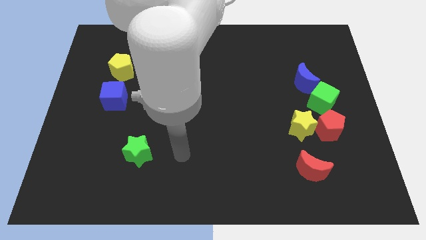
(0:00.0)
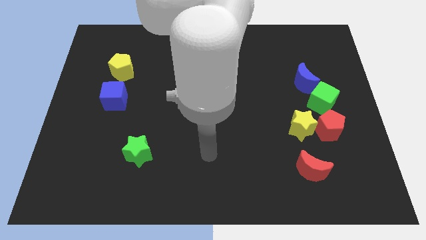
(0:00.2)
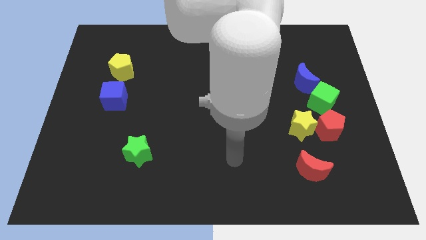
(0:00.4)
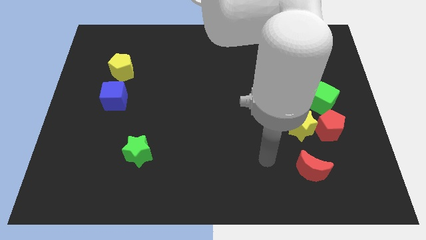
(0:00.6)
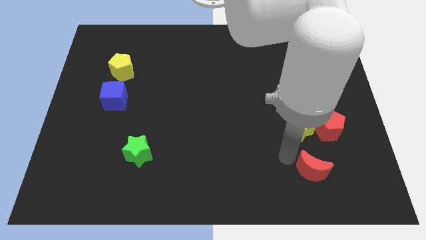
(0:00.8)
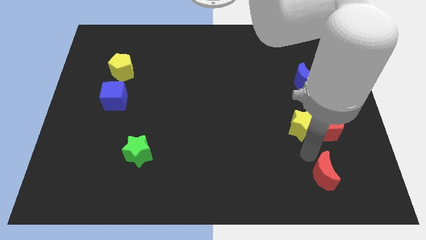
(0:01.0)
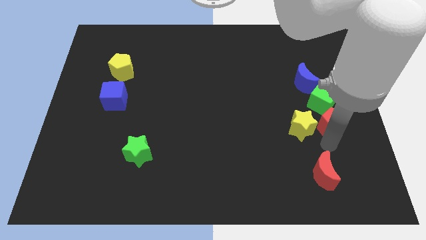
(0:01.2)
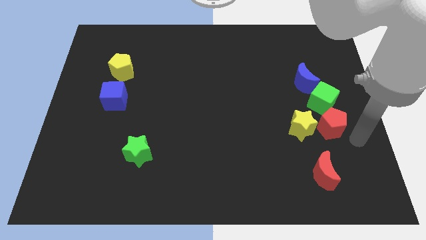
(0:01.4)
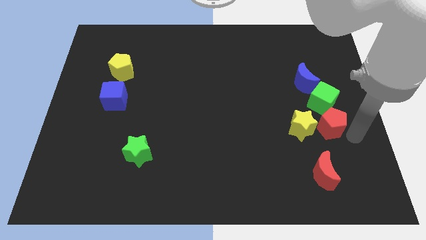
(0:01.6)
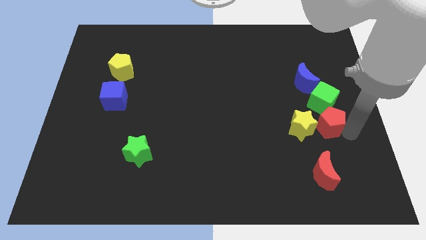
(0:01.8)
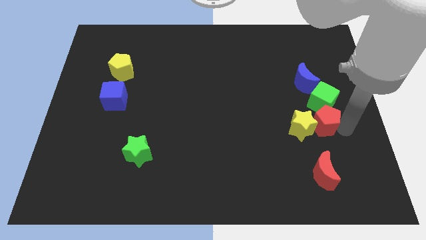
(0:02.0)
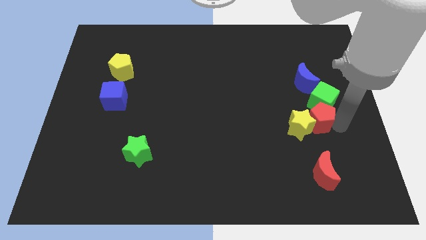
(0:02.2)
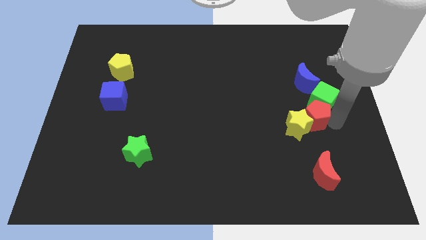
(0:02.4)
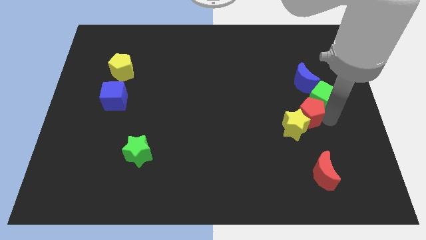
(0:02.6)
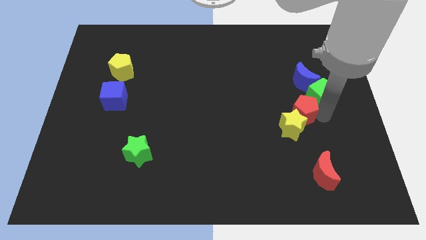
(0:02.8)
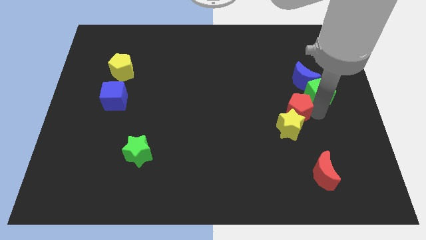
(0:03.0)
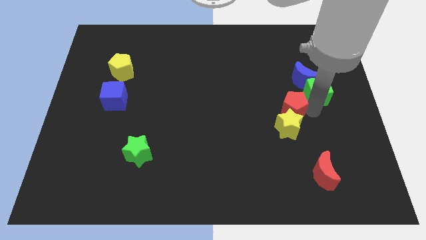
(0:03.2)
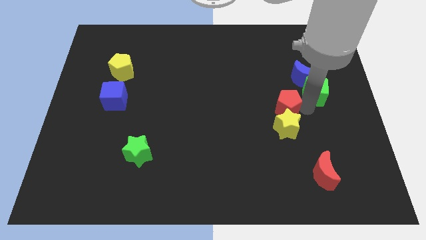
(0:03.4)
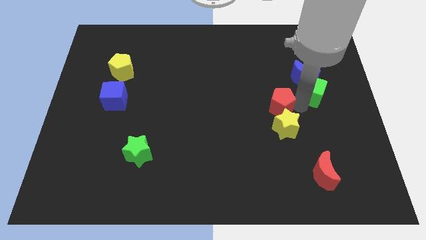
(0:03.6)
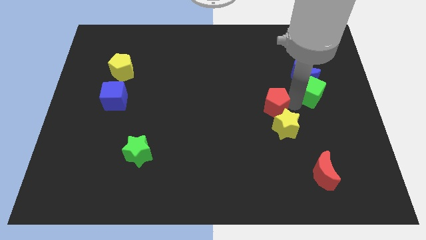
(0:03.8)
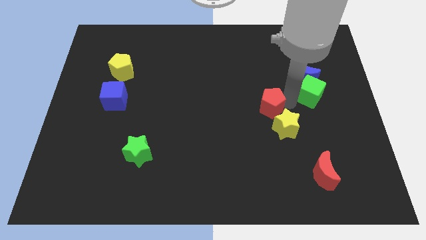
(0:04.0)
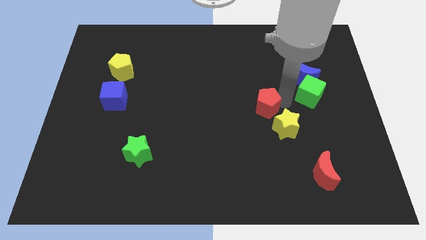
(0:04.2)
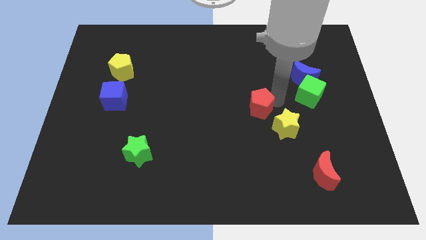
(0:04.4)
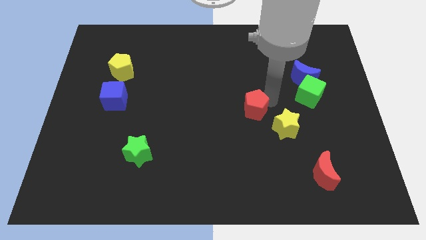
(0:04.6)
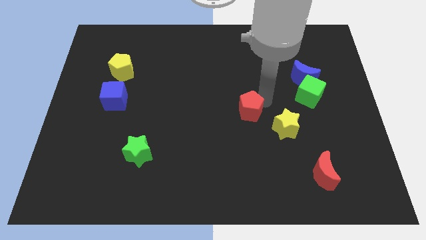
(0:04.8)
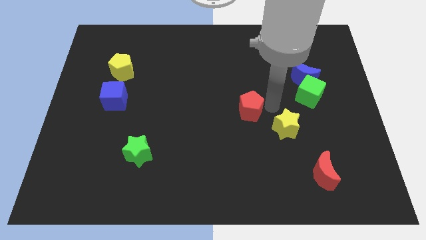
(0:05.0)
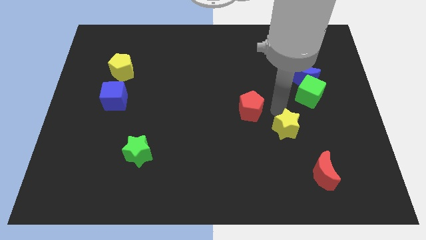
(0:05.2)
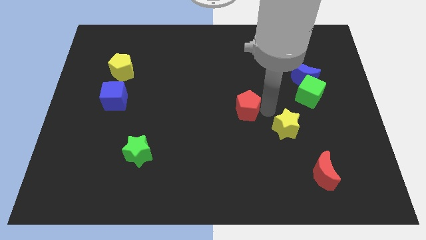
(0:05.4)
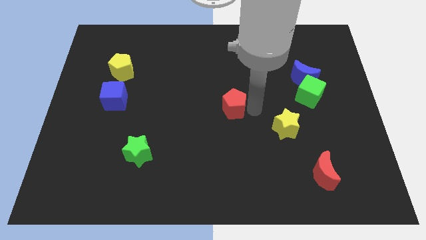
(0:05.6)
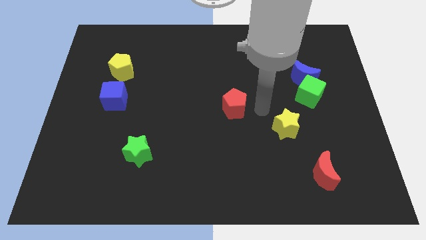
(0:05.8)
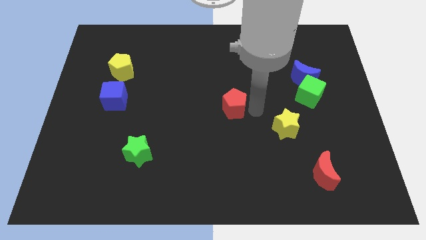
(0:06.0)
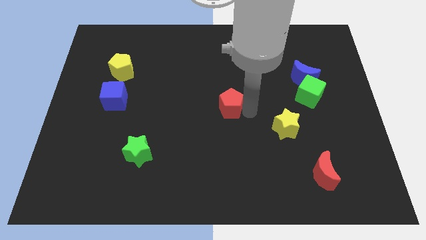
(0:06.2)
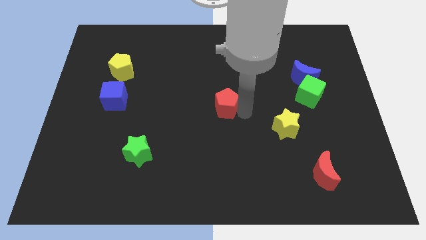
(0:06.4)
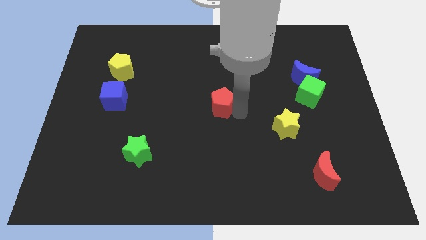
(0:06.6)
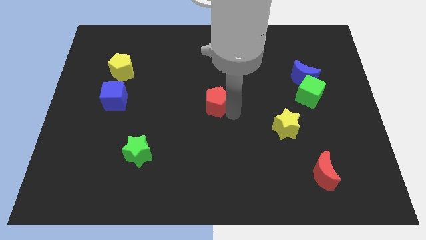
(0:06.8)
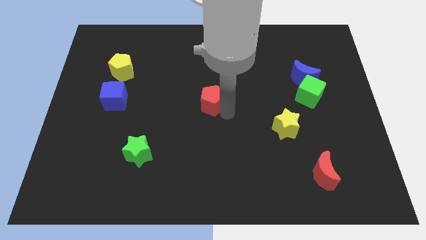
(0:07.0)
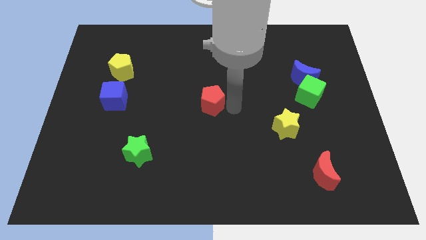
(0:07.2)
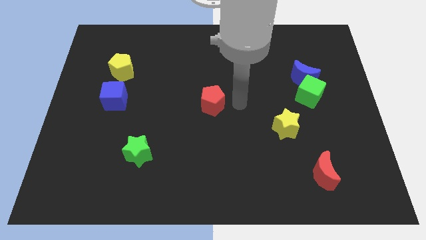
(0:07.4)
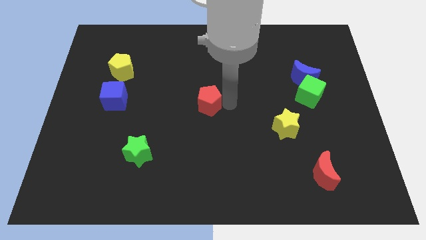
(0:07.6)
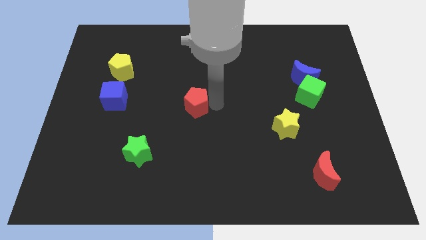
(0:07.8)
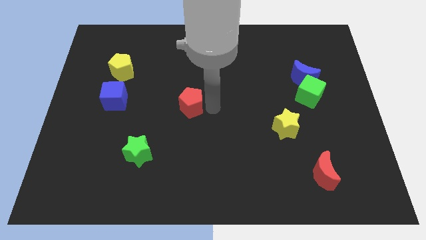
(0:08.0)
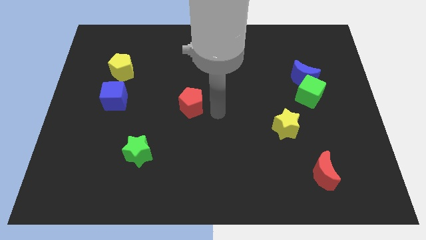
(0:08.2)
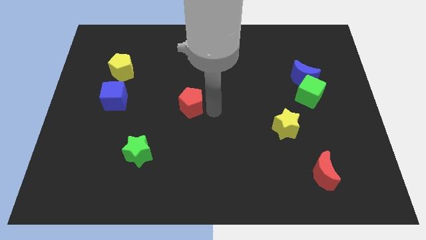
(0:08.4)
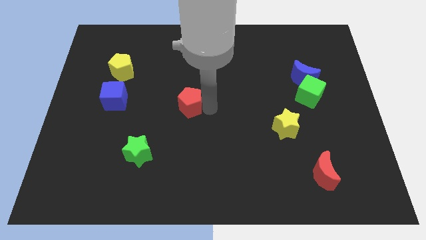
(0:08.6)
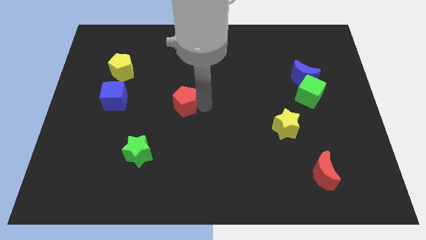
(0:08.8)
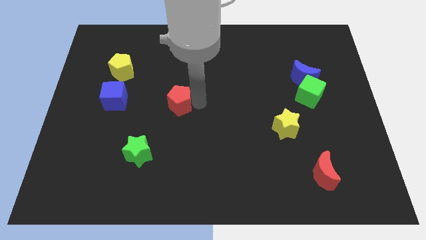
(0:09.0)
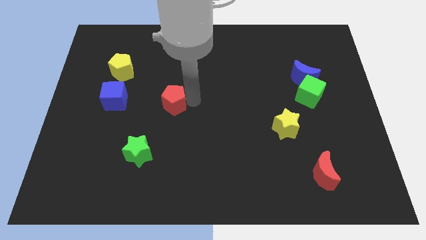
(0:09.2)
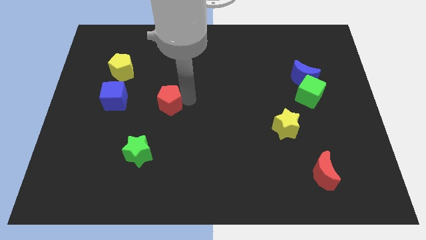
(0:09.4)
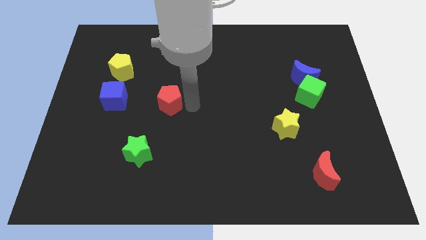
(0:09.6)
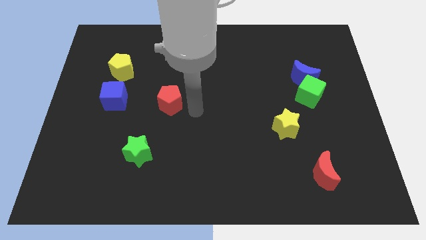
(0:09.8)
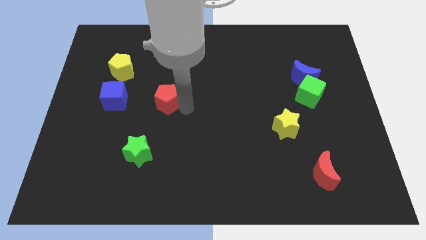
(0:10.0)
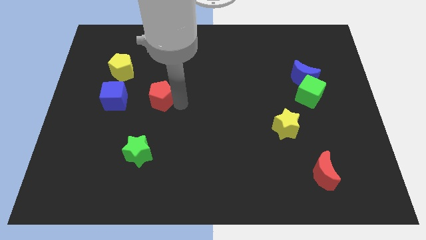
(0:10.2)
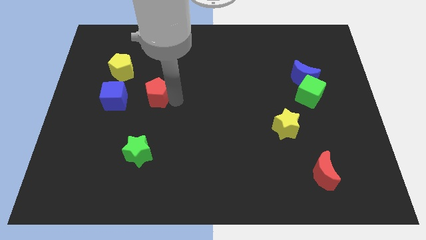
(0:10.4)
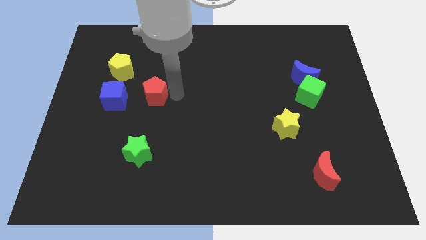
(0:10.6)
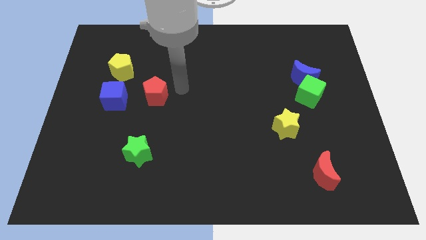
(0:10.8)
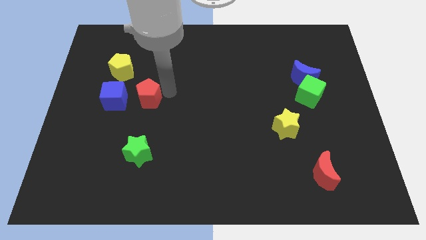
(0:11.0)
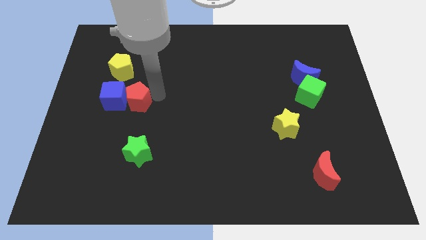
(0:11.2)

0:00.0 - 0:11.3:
put the red pentagon to the blue cube

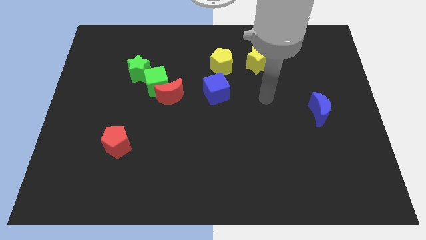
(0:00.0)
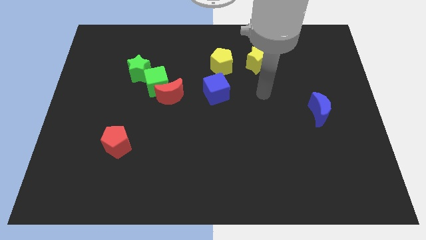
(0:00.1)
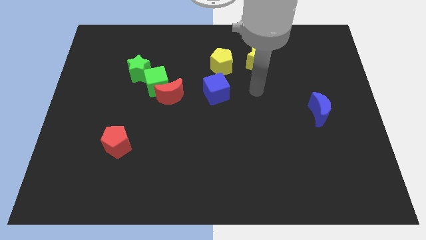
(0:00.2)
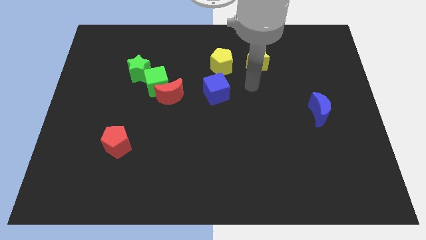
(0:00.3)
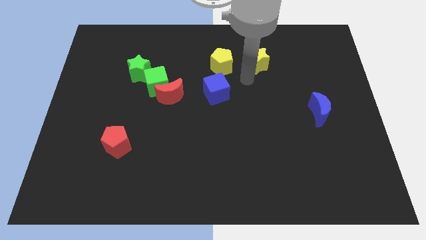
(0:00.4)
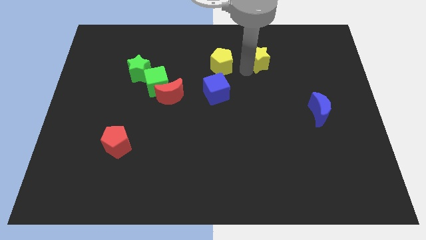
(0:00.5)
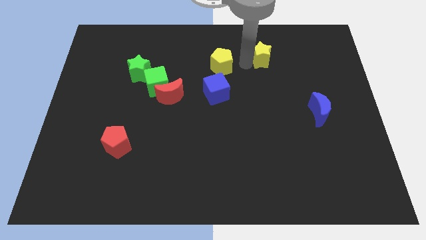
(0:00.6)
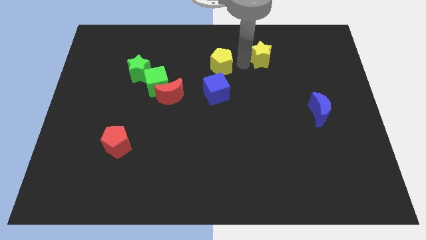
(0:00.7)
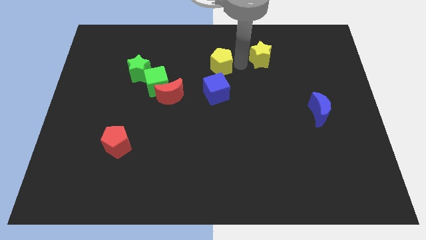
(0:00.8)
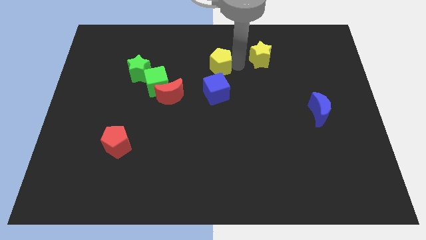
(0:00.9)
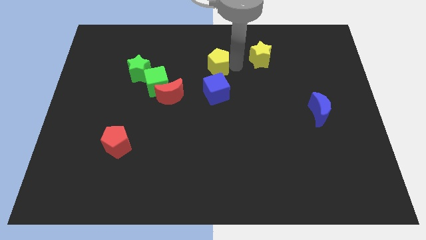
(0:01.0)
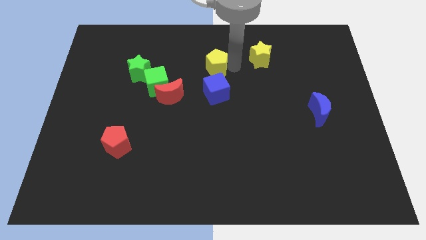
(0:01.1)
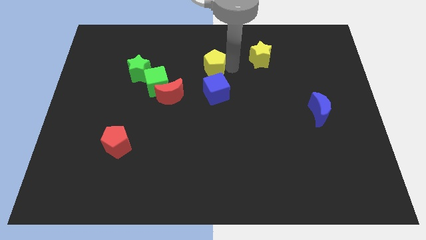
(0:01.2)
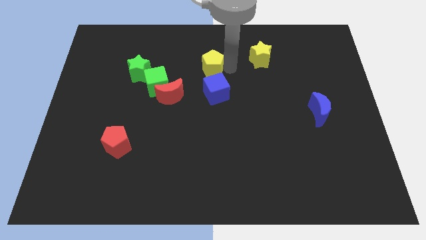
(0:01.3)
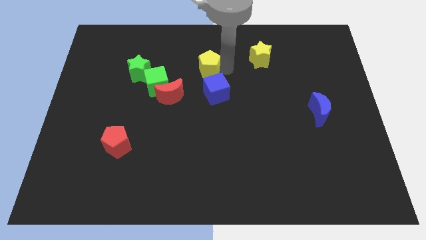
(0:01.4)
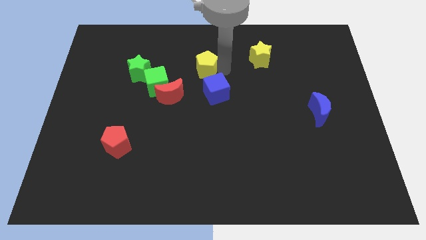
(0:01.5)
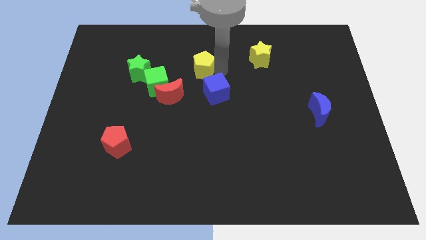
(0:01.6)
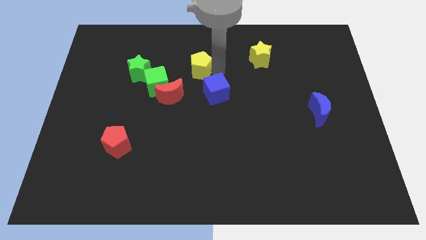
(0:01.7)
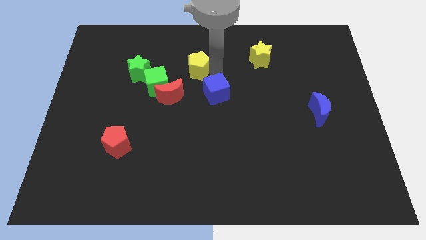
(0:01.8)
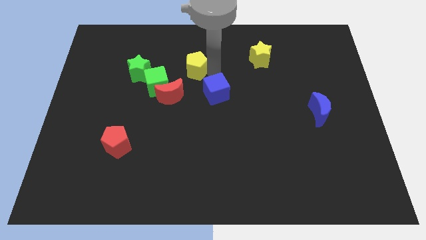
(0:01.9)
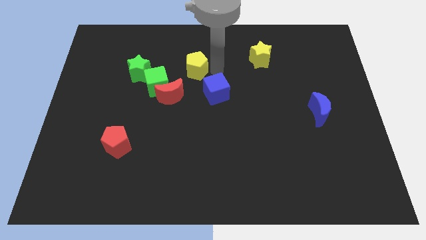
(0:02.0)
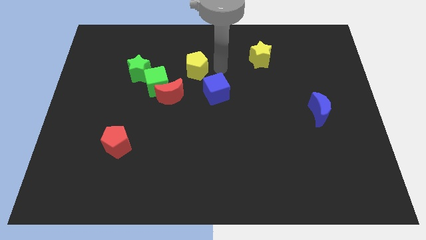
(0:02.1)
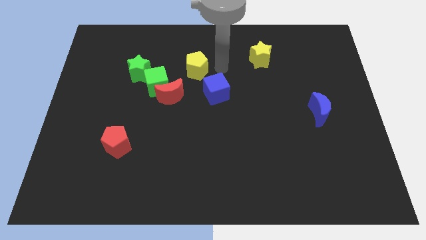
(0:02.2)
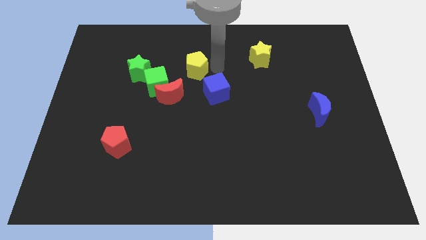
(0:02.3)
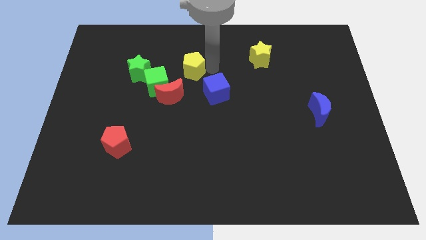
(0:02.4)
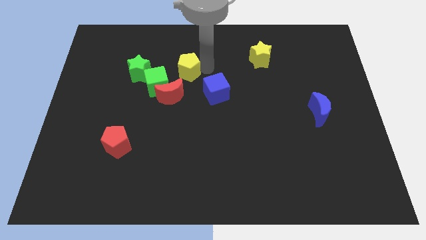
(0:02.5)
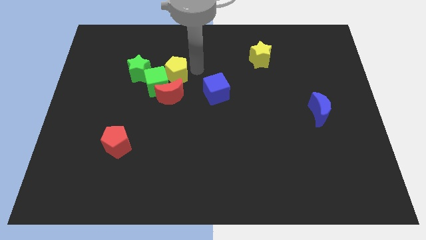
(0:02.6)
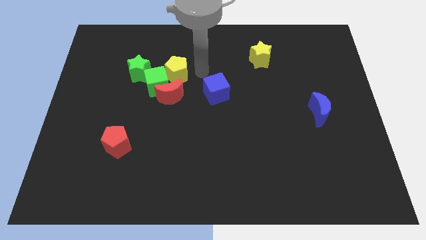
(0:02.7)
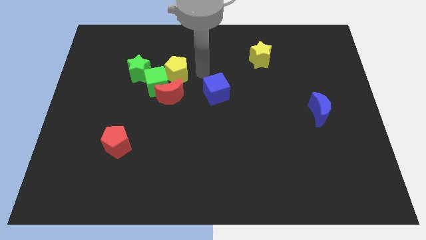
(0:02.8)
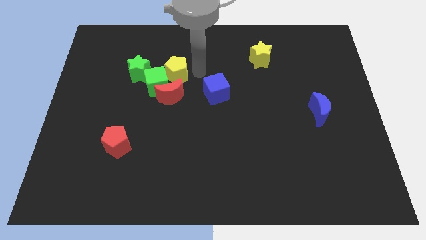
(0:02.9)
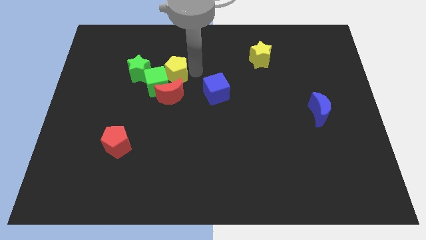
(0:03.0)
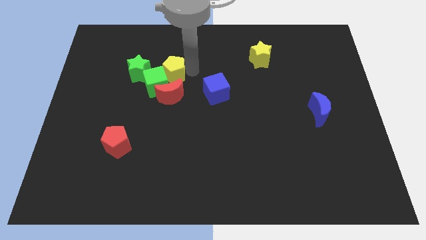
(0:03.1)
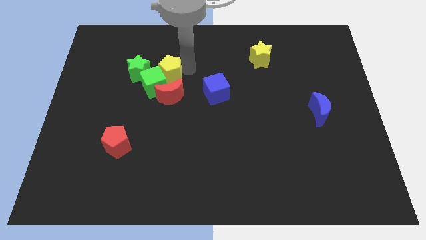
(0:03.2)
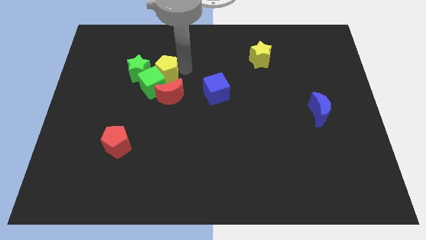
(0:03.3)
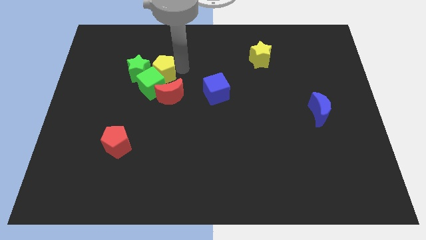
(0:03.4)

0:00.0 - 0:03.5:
move the yellow pentagon towards the green star
